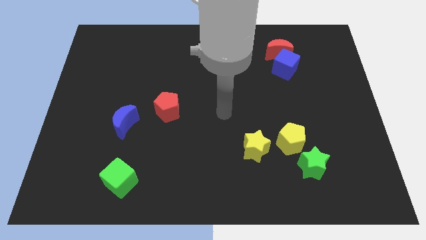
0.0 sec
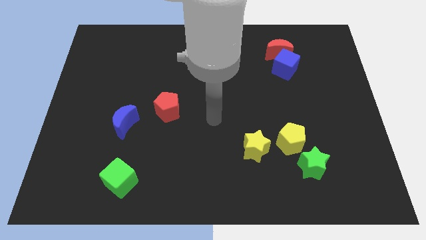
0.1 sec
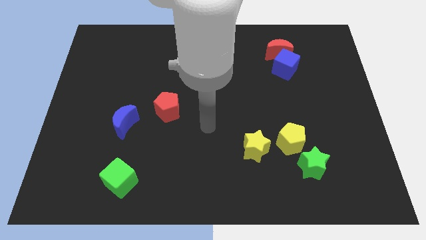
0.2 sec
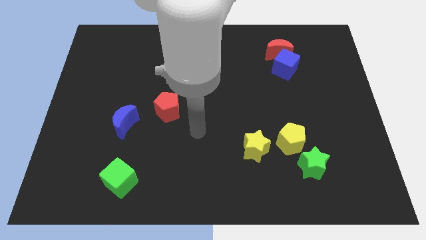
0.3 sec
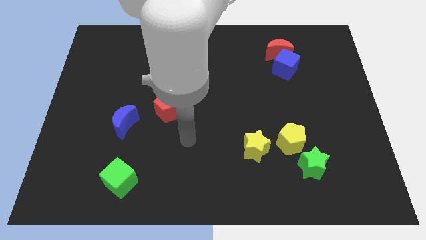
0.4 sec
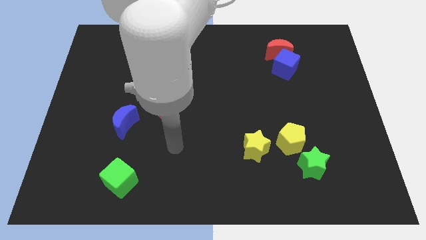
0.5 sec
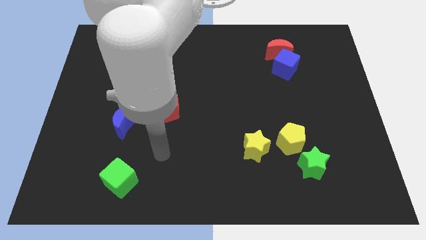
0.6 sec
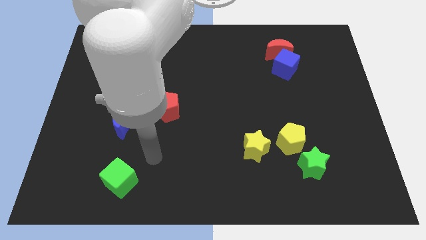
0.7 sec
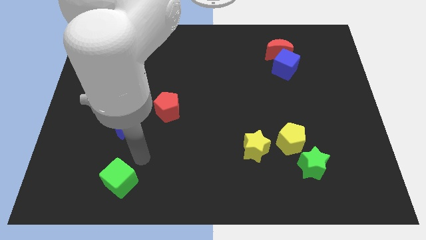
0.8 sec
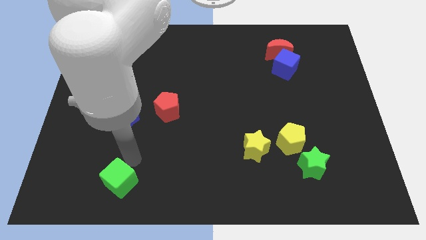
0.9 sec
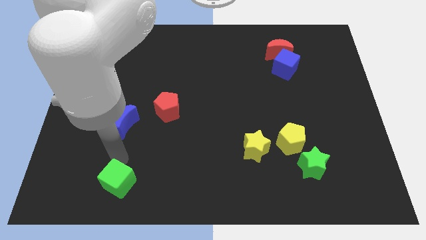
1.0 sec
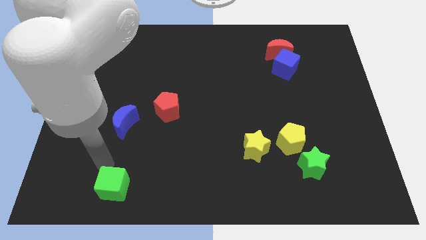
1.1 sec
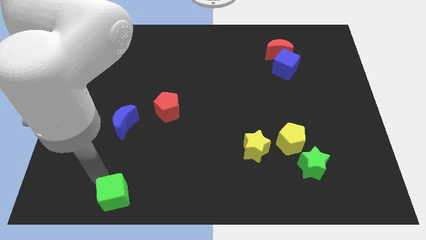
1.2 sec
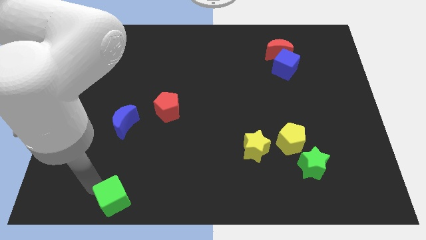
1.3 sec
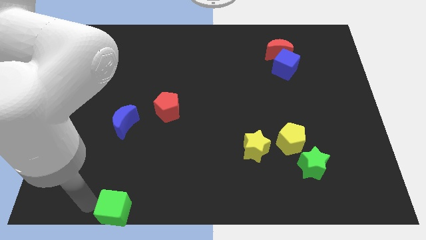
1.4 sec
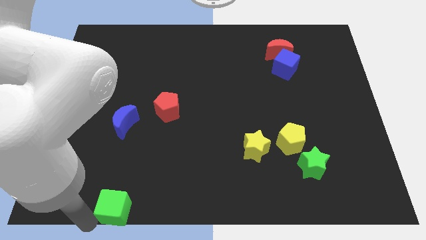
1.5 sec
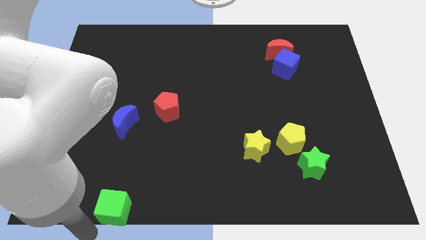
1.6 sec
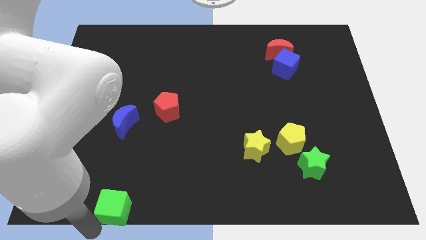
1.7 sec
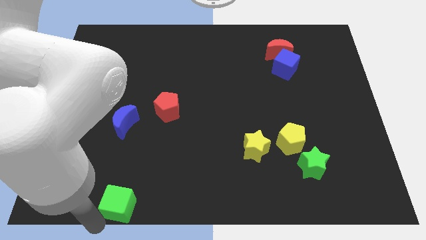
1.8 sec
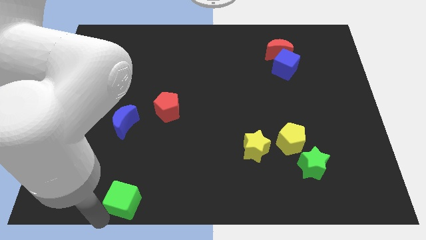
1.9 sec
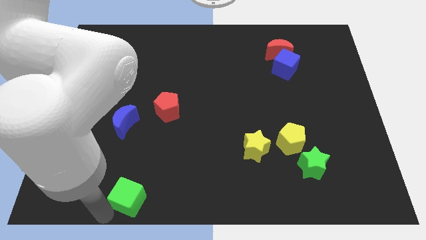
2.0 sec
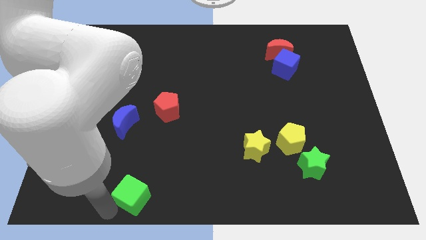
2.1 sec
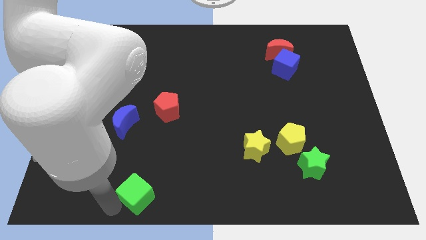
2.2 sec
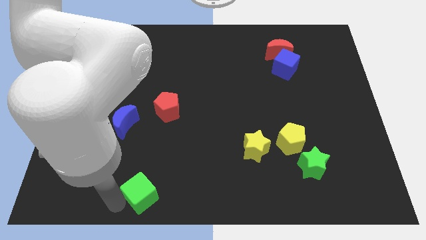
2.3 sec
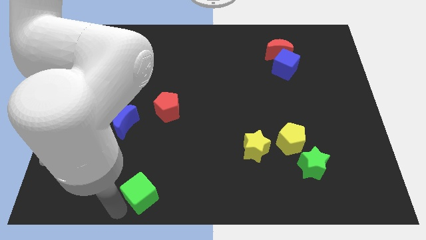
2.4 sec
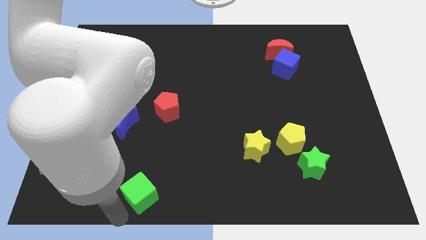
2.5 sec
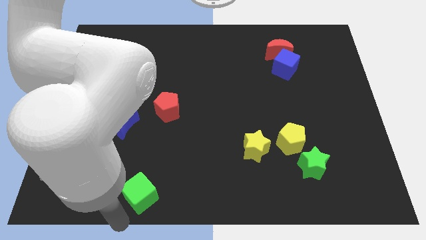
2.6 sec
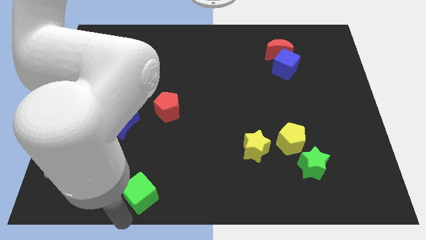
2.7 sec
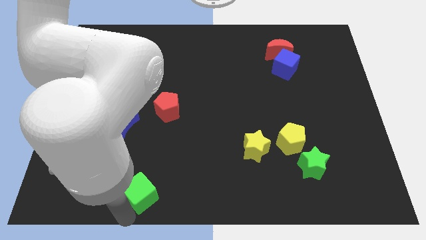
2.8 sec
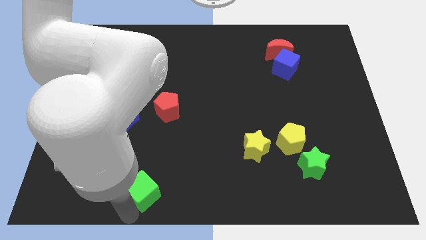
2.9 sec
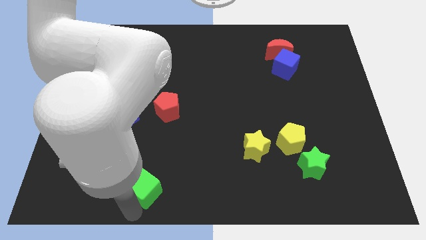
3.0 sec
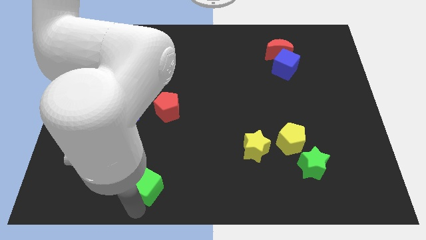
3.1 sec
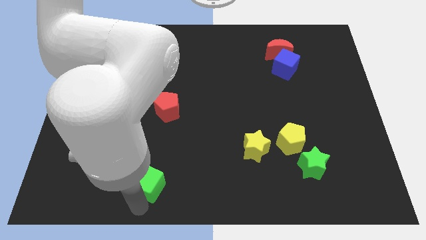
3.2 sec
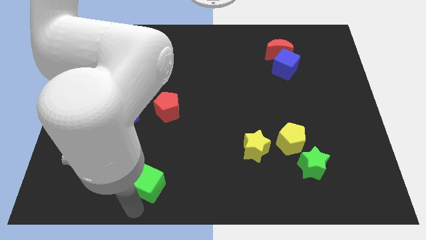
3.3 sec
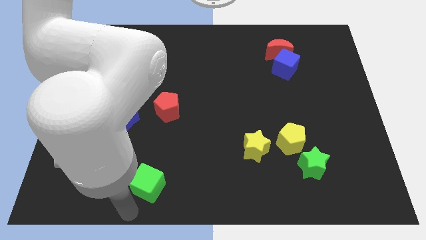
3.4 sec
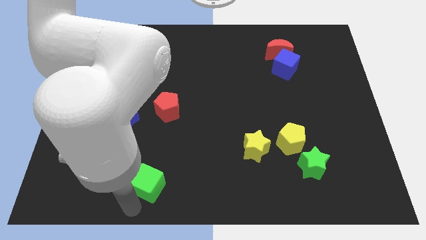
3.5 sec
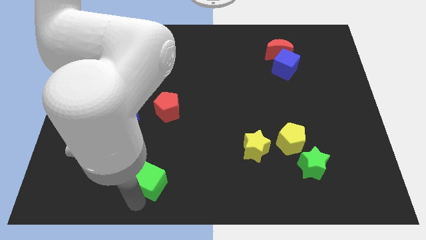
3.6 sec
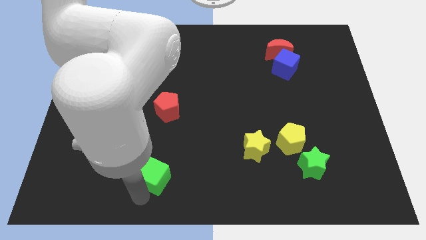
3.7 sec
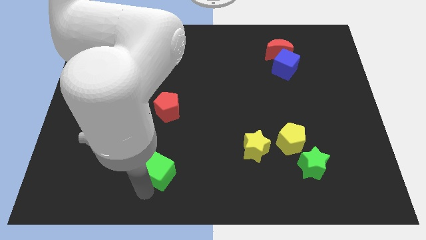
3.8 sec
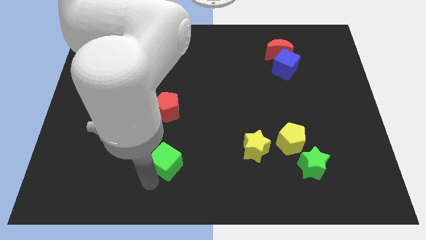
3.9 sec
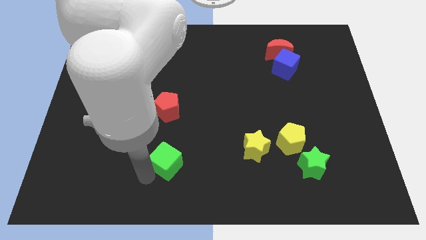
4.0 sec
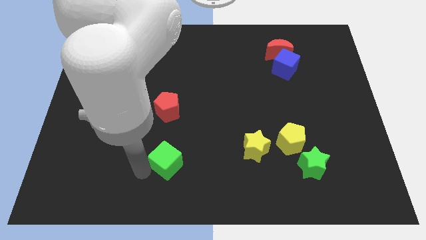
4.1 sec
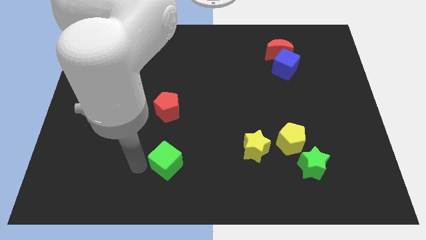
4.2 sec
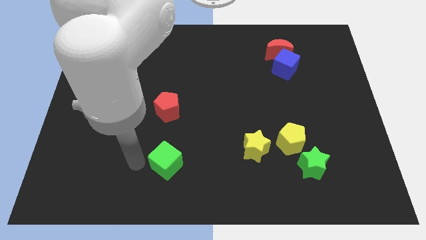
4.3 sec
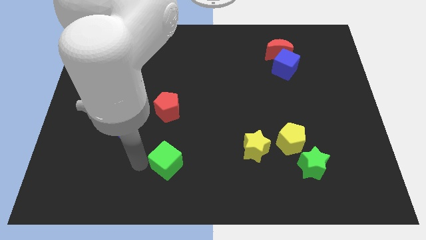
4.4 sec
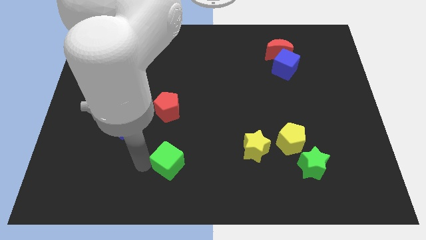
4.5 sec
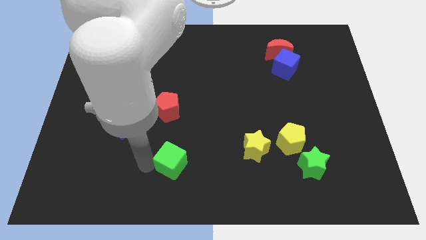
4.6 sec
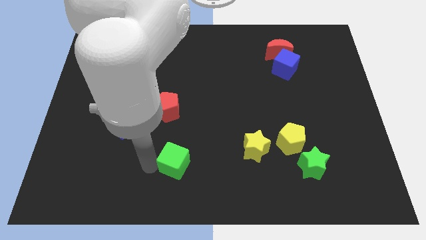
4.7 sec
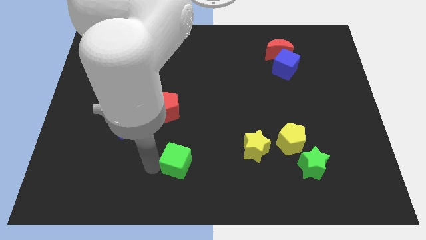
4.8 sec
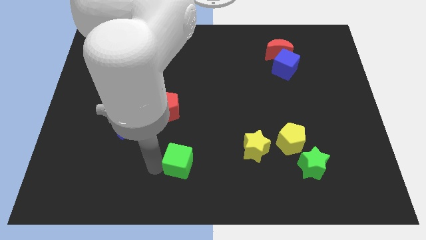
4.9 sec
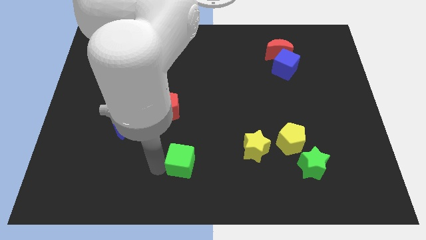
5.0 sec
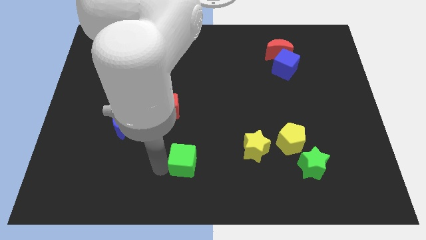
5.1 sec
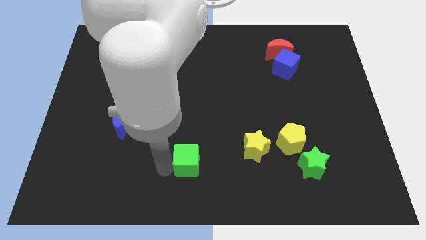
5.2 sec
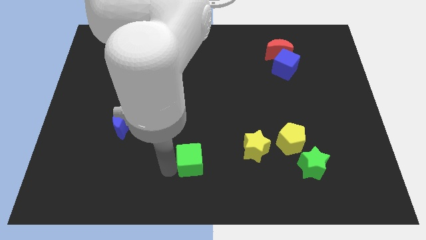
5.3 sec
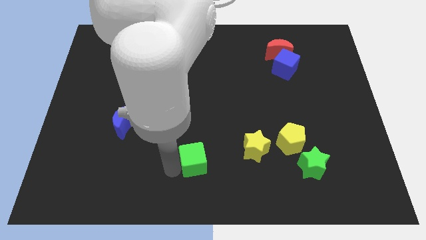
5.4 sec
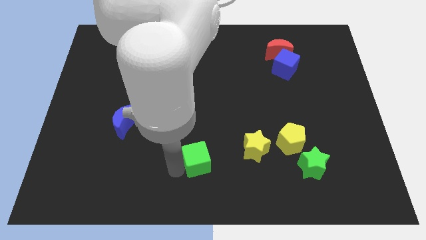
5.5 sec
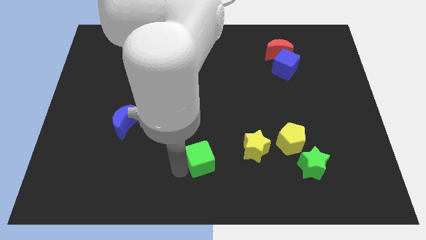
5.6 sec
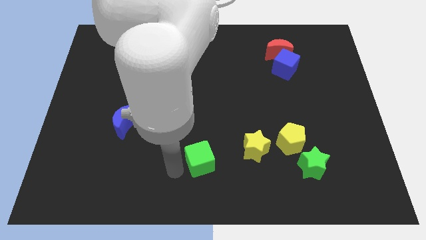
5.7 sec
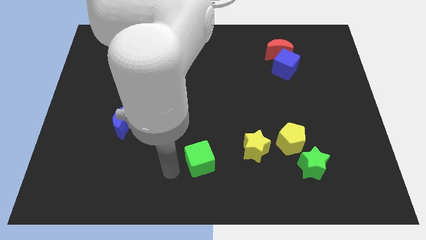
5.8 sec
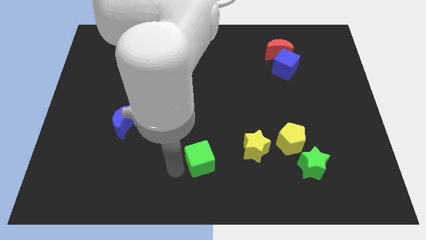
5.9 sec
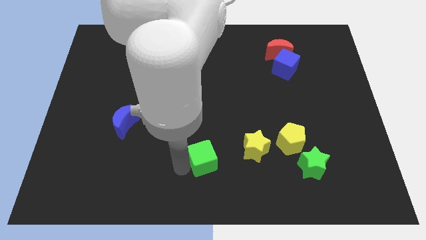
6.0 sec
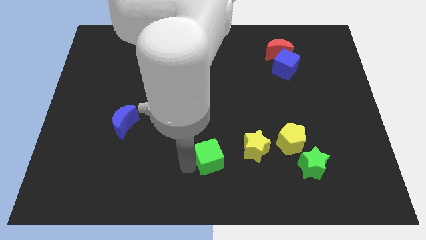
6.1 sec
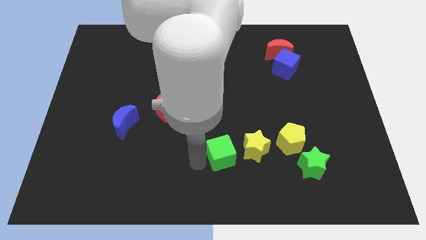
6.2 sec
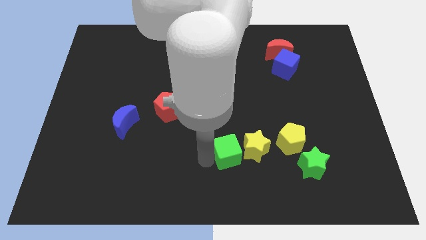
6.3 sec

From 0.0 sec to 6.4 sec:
move the green cube next to the yellow star

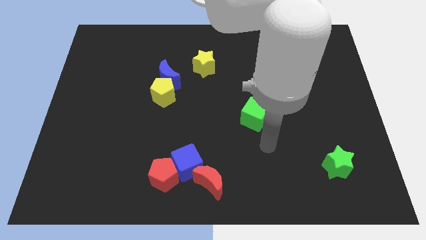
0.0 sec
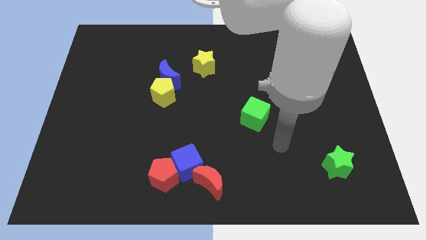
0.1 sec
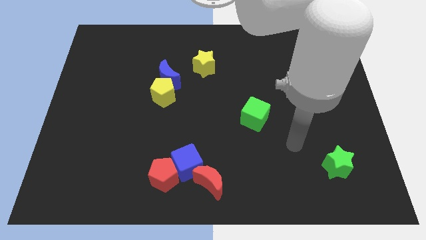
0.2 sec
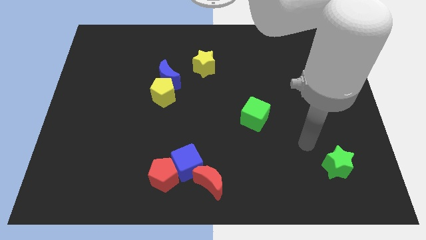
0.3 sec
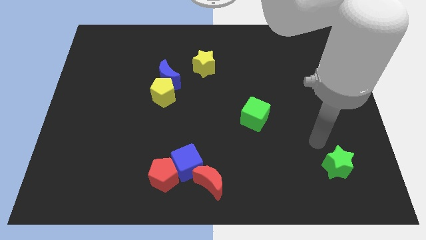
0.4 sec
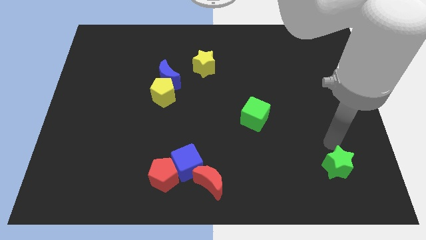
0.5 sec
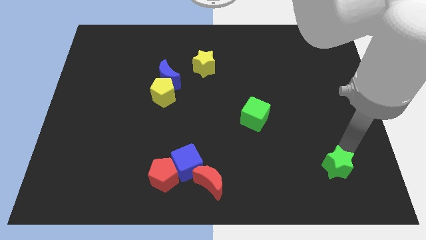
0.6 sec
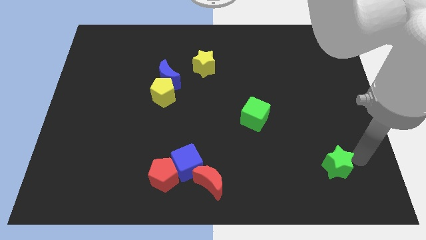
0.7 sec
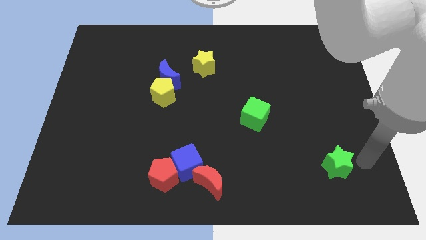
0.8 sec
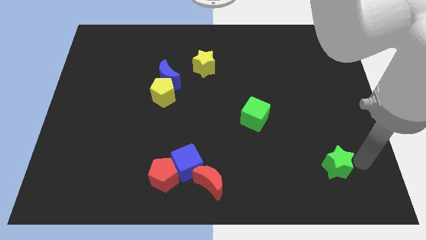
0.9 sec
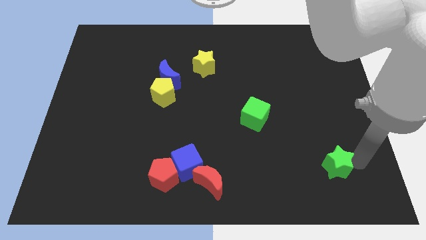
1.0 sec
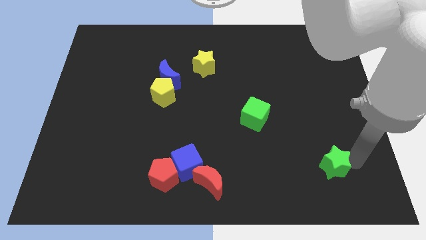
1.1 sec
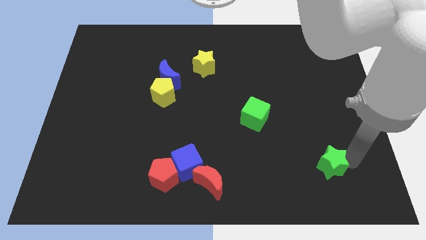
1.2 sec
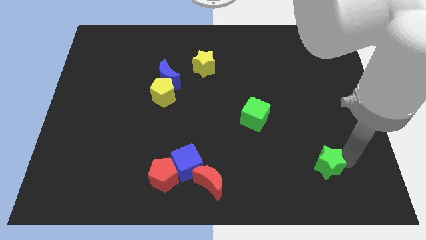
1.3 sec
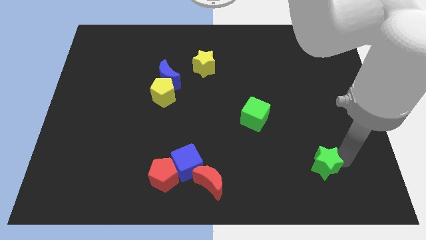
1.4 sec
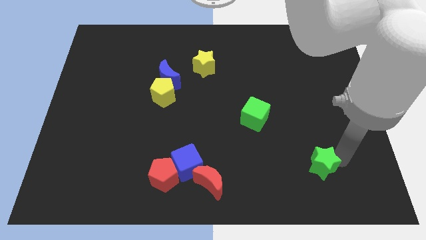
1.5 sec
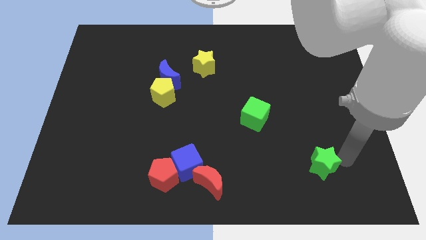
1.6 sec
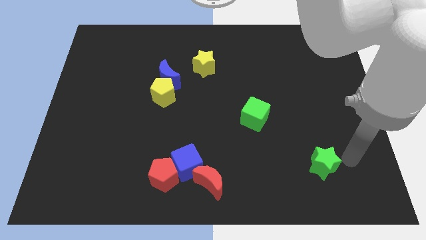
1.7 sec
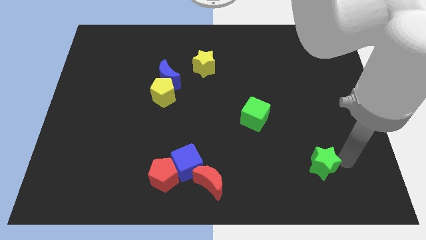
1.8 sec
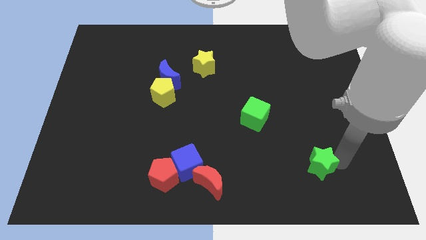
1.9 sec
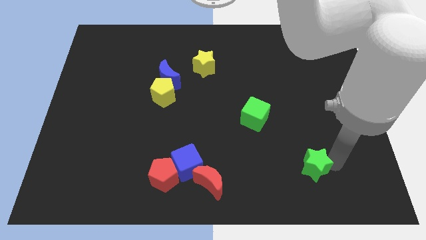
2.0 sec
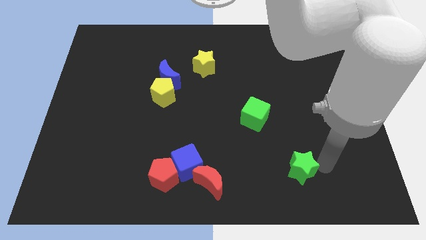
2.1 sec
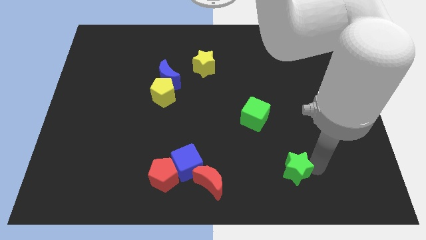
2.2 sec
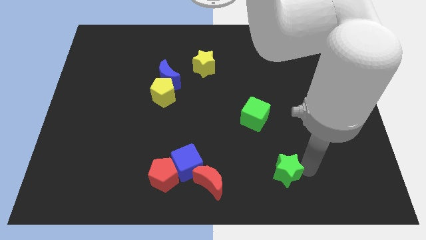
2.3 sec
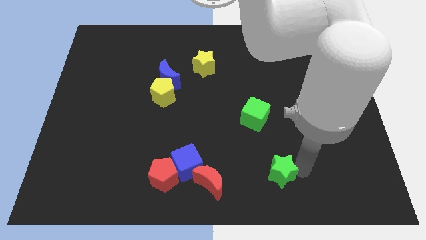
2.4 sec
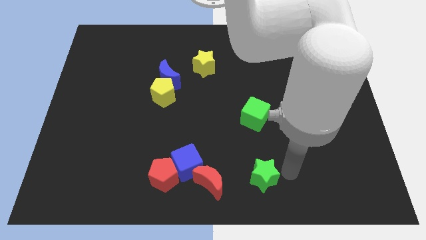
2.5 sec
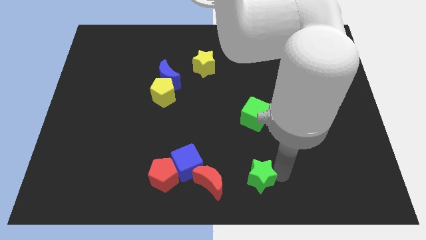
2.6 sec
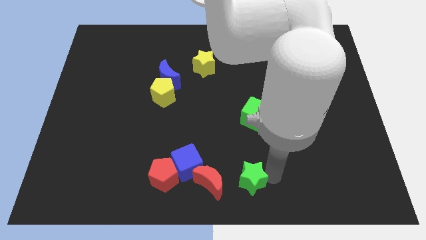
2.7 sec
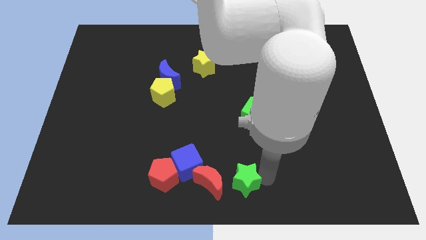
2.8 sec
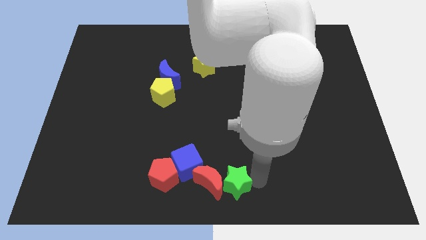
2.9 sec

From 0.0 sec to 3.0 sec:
move the green star to the red moon
